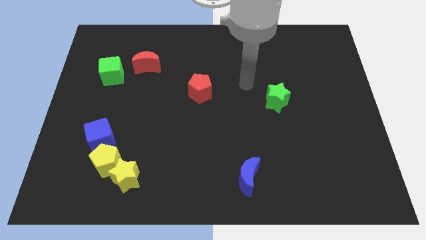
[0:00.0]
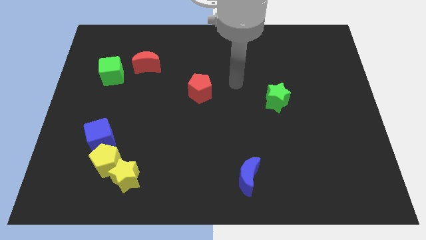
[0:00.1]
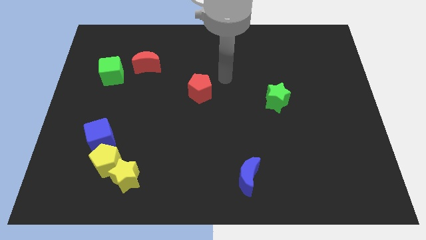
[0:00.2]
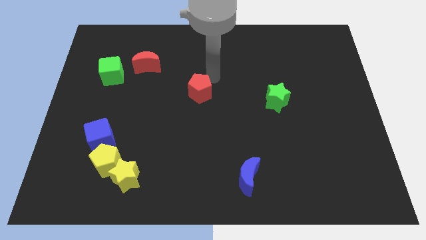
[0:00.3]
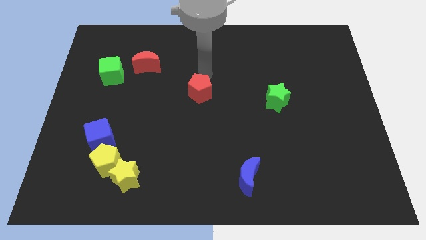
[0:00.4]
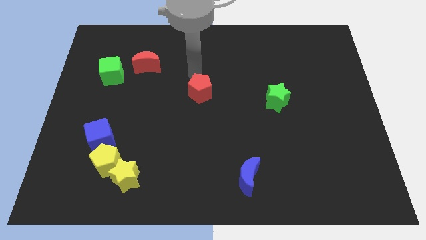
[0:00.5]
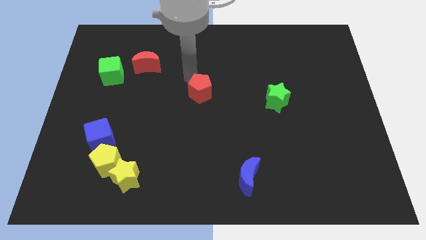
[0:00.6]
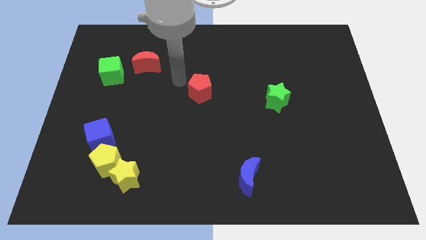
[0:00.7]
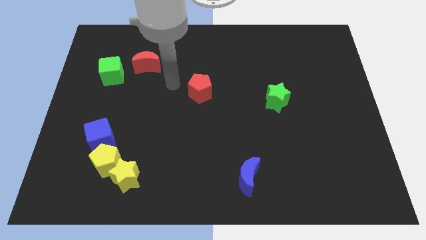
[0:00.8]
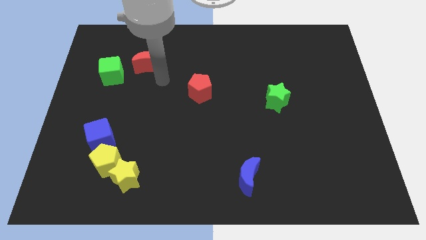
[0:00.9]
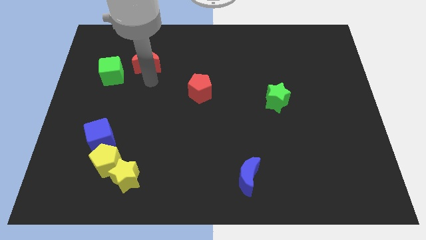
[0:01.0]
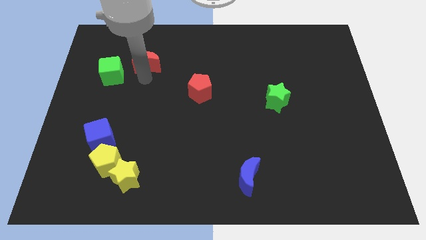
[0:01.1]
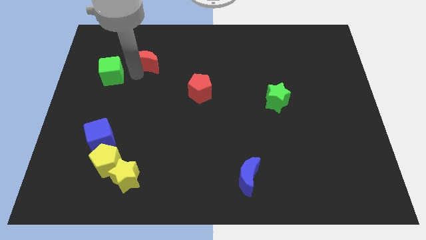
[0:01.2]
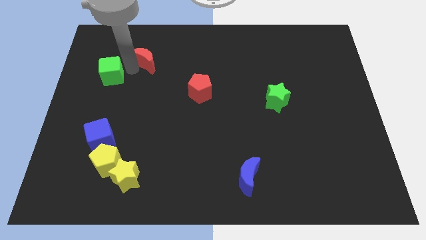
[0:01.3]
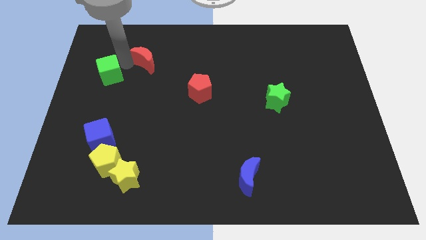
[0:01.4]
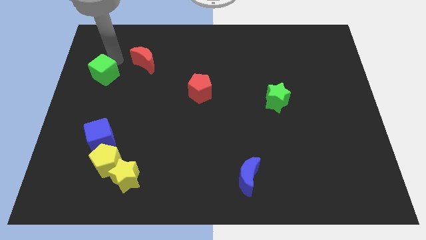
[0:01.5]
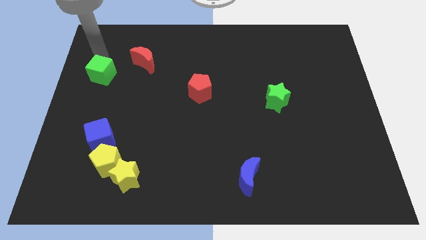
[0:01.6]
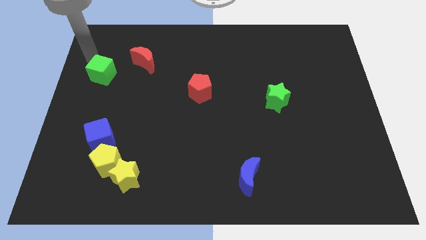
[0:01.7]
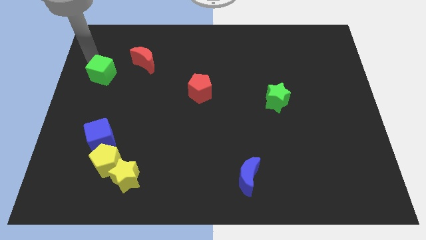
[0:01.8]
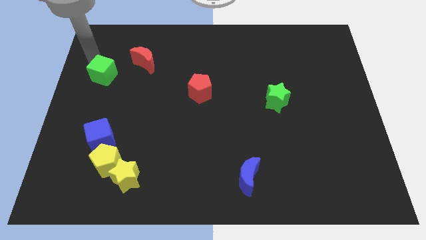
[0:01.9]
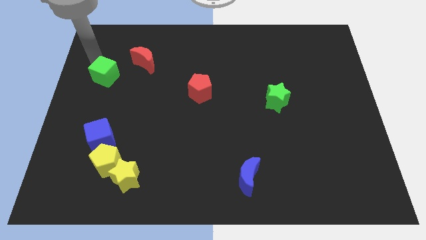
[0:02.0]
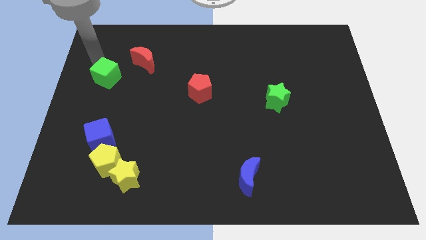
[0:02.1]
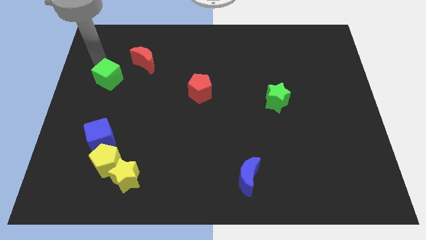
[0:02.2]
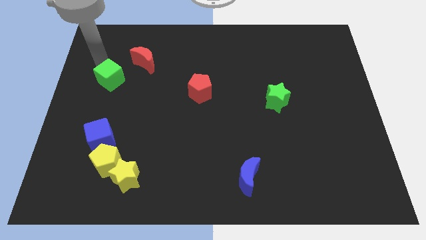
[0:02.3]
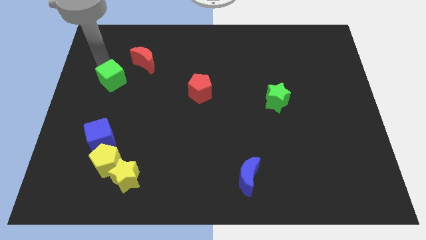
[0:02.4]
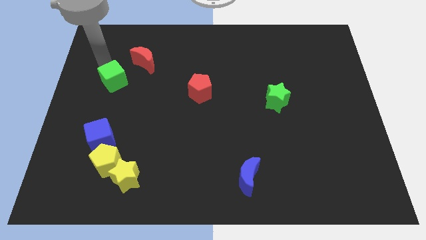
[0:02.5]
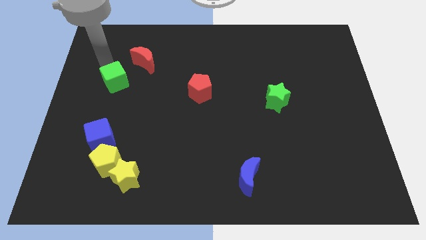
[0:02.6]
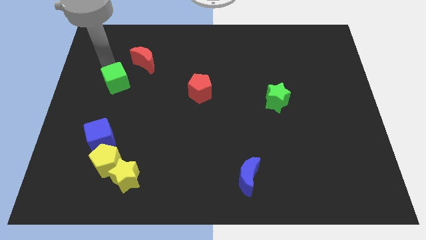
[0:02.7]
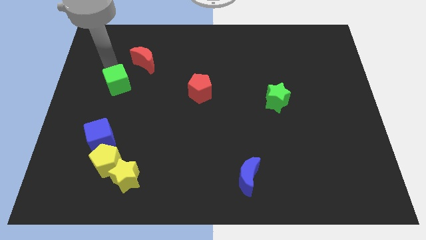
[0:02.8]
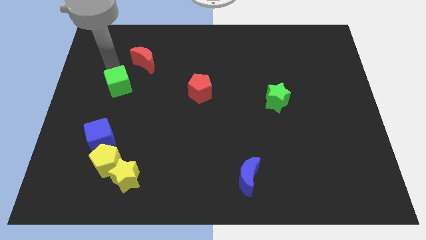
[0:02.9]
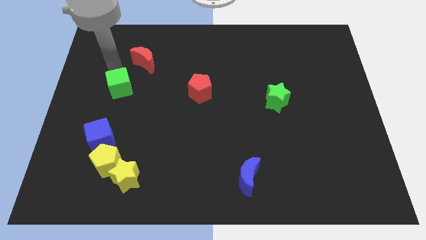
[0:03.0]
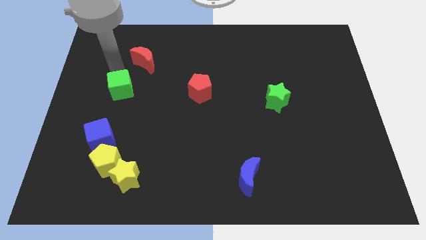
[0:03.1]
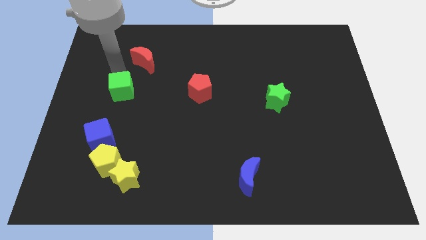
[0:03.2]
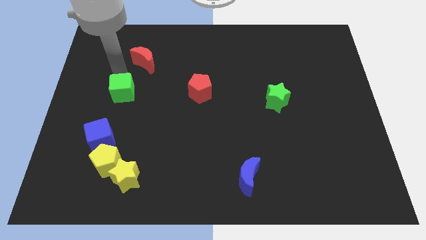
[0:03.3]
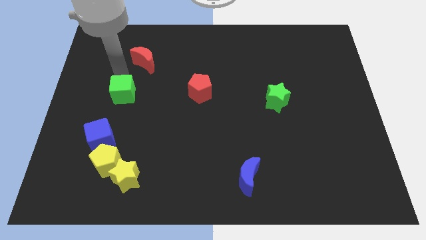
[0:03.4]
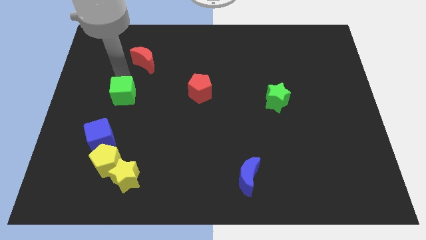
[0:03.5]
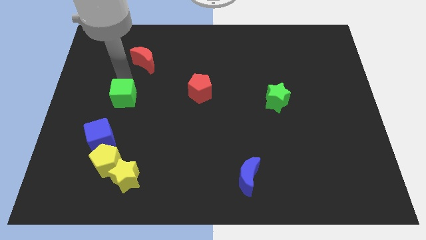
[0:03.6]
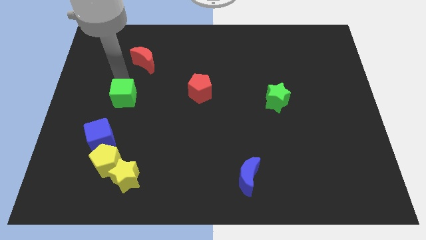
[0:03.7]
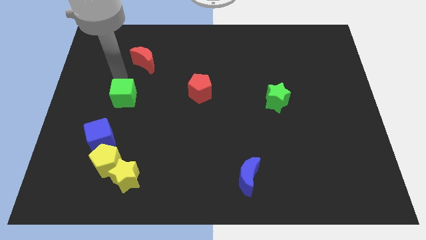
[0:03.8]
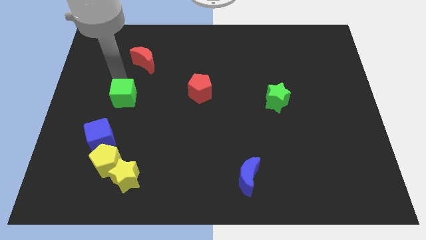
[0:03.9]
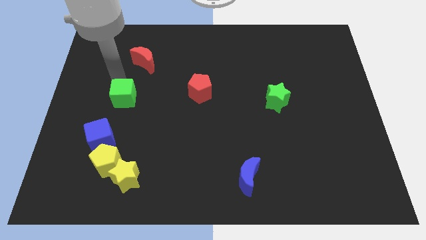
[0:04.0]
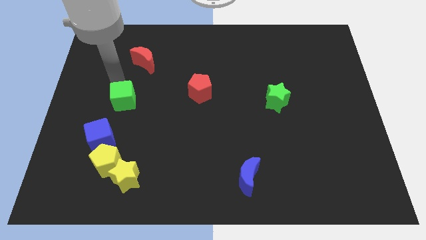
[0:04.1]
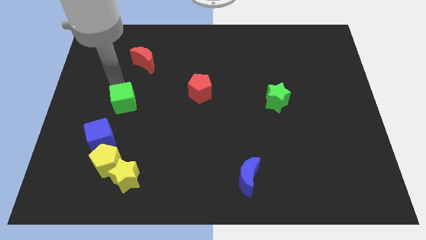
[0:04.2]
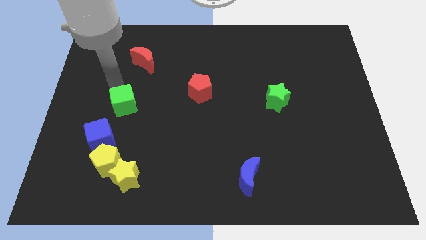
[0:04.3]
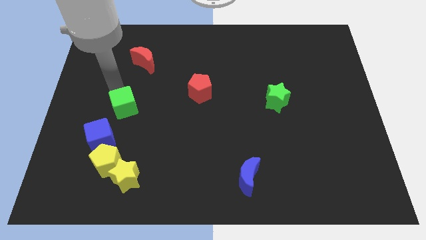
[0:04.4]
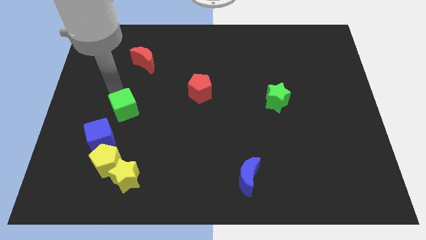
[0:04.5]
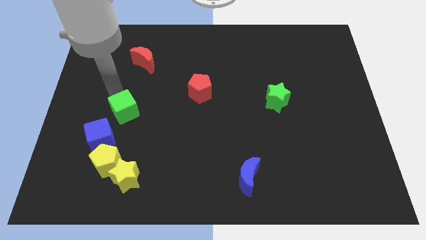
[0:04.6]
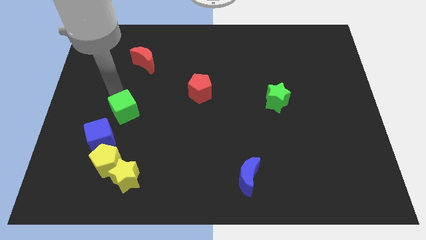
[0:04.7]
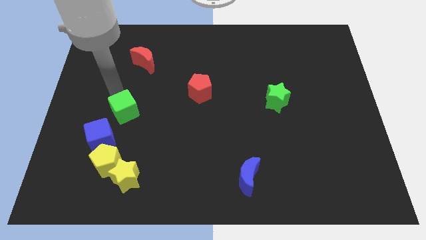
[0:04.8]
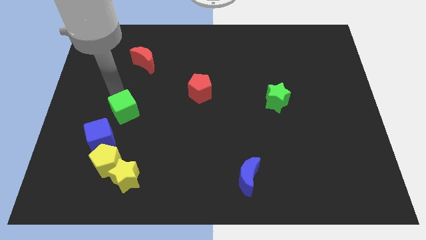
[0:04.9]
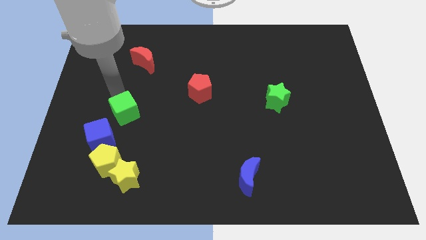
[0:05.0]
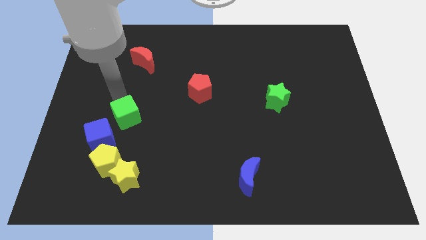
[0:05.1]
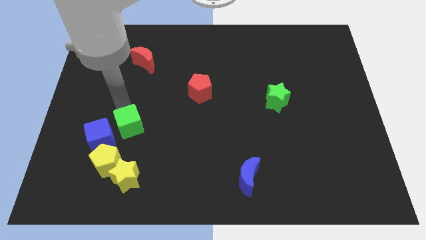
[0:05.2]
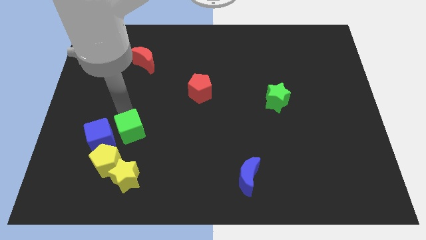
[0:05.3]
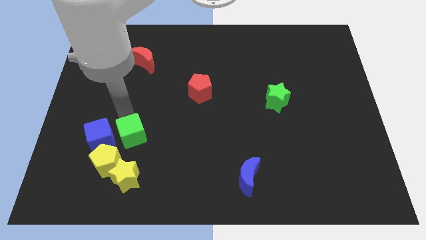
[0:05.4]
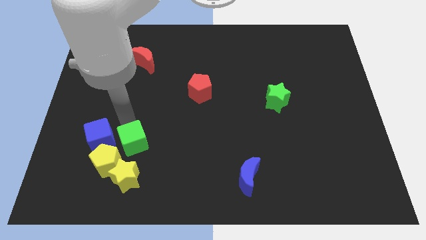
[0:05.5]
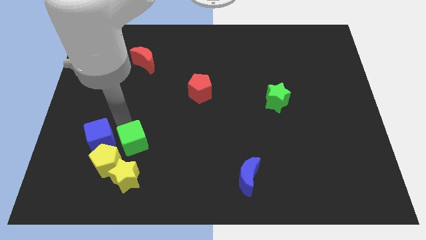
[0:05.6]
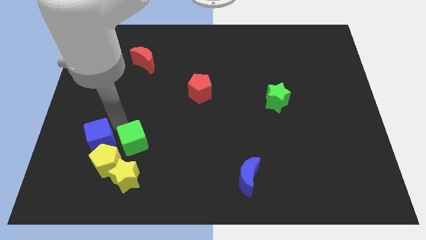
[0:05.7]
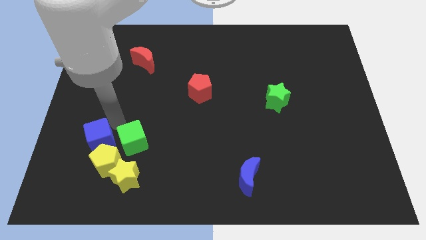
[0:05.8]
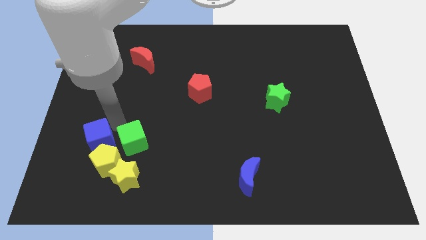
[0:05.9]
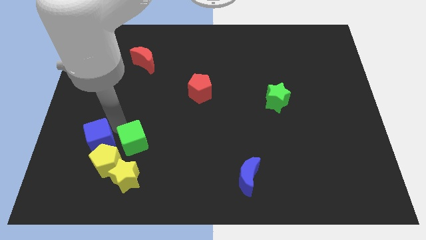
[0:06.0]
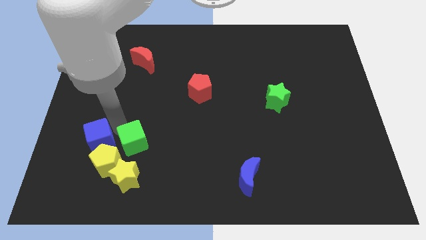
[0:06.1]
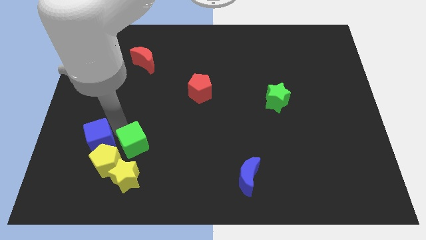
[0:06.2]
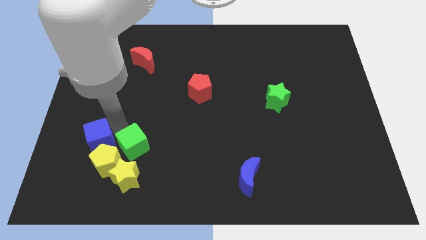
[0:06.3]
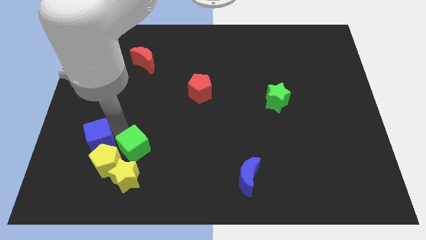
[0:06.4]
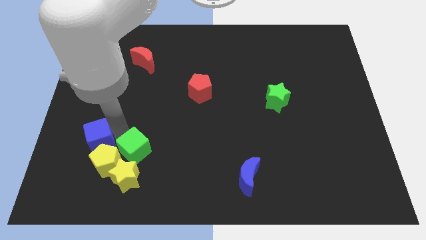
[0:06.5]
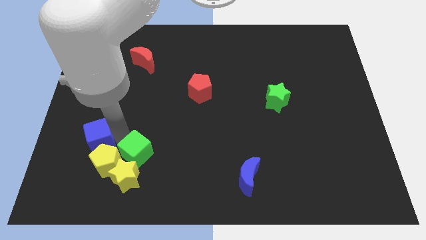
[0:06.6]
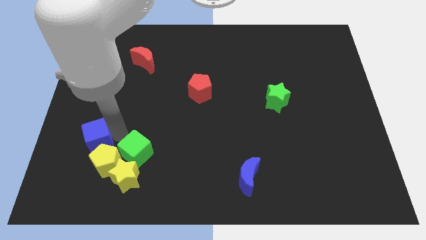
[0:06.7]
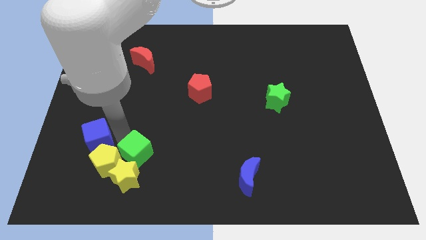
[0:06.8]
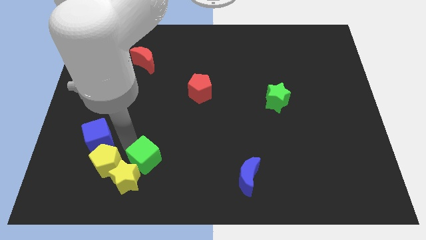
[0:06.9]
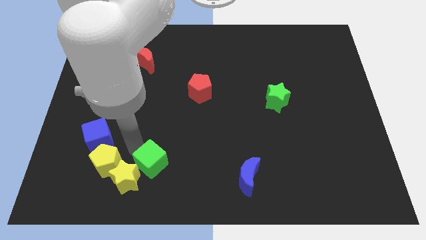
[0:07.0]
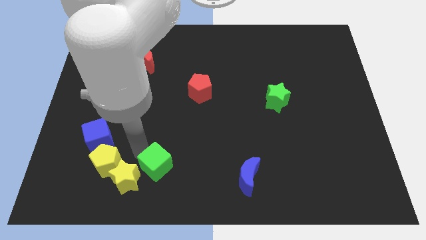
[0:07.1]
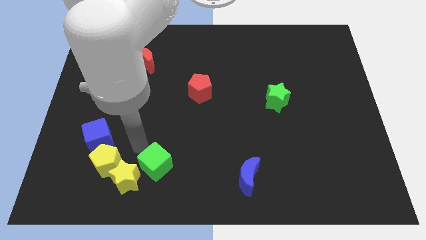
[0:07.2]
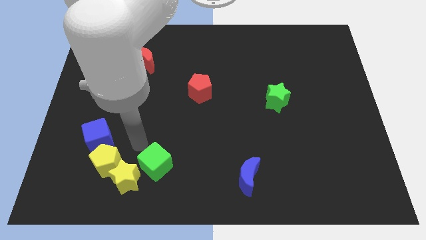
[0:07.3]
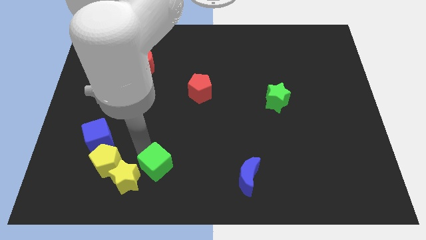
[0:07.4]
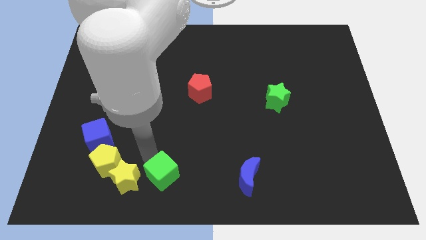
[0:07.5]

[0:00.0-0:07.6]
push the green cube to the bottom
